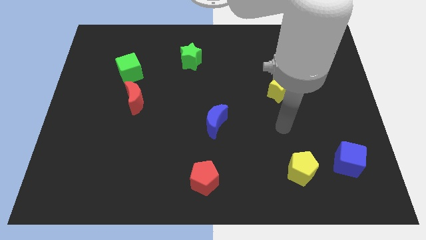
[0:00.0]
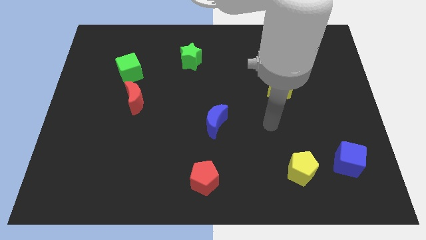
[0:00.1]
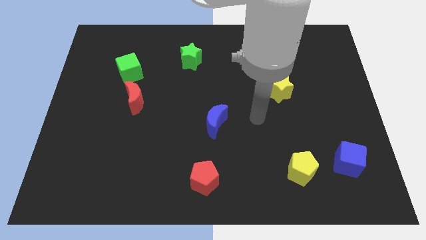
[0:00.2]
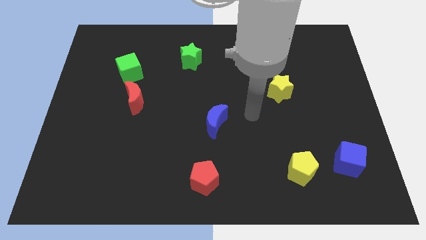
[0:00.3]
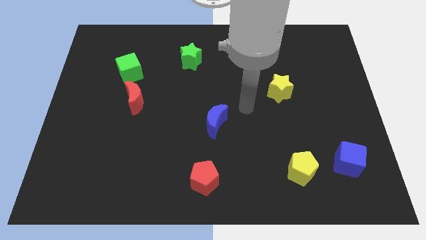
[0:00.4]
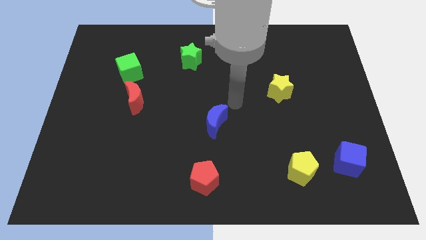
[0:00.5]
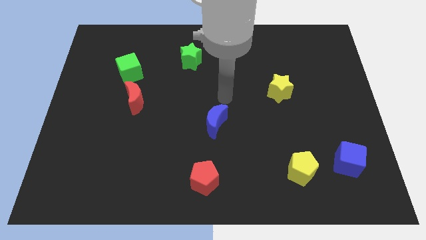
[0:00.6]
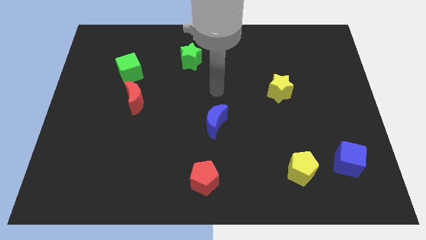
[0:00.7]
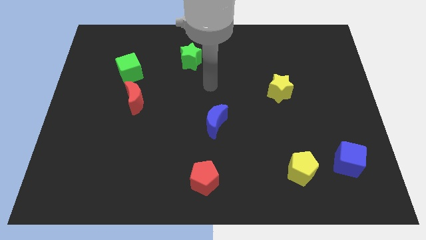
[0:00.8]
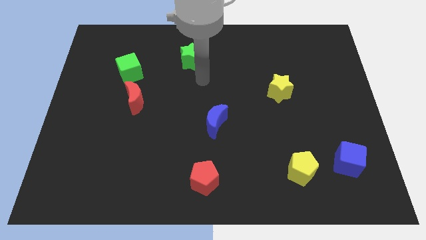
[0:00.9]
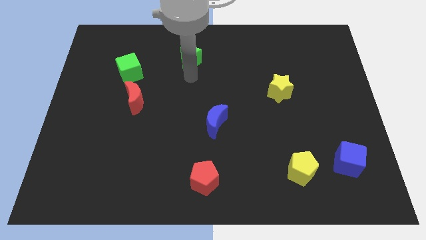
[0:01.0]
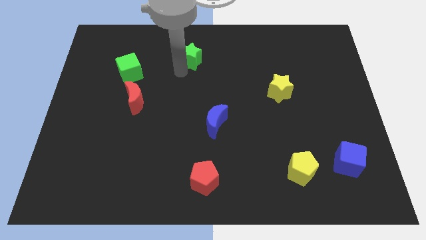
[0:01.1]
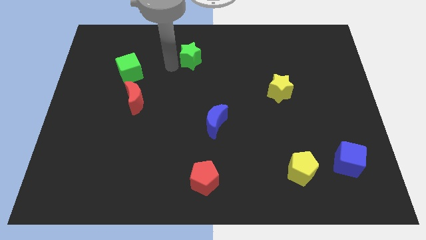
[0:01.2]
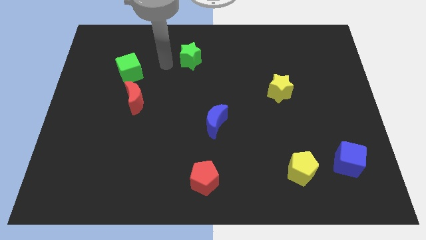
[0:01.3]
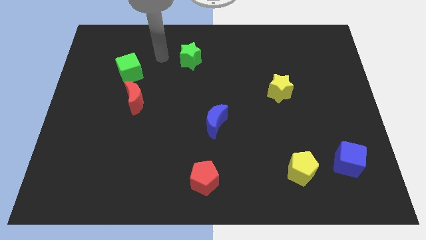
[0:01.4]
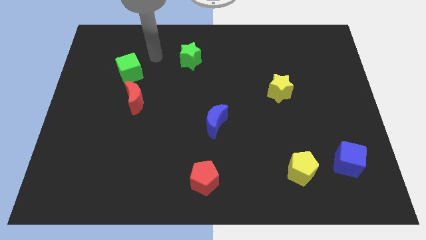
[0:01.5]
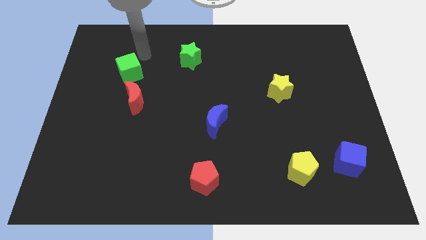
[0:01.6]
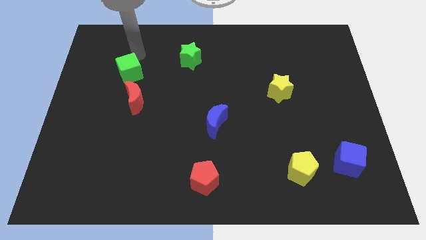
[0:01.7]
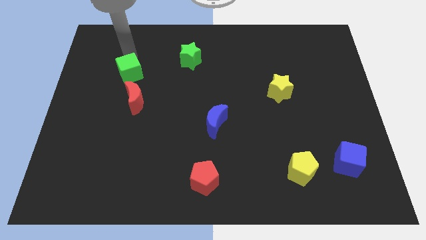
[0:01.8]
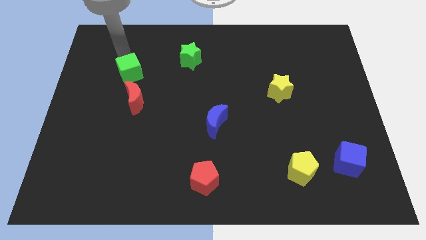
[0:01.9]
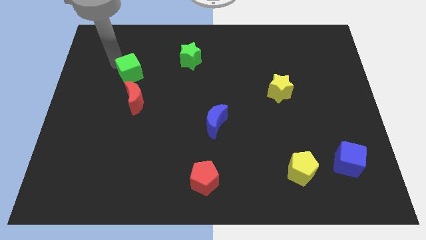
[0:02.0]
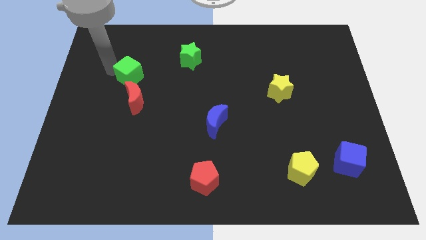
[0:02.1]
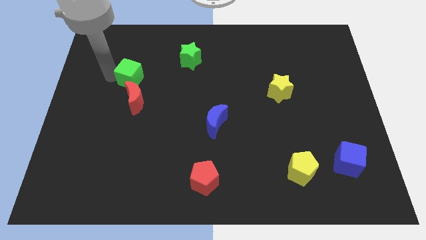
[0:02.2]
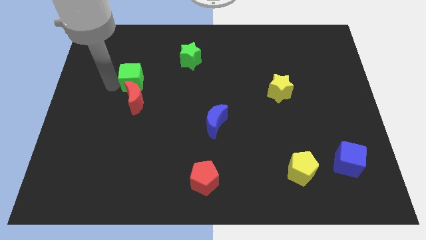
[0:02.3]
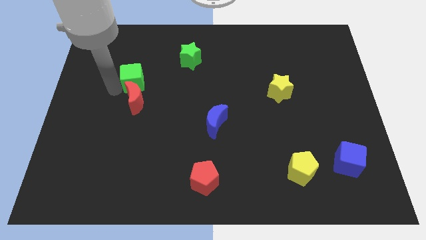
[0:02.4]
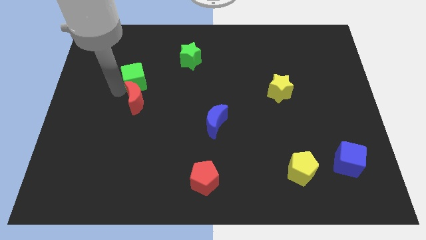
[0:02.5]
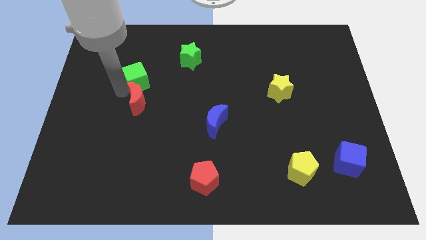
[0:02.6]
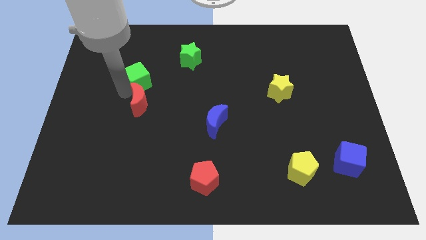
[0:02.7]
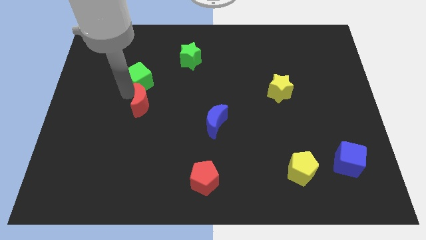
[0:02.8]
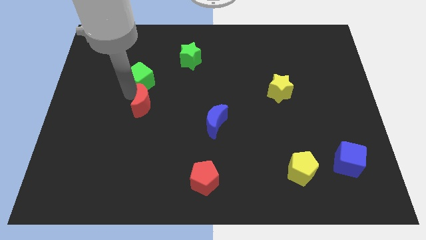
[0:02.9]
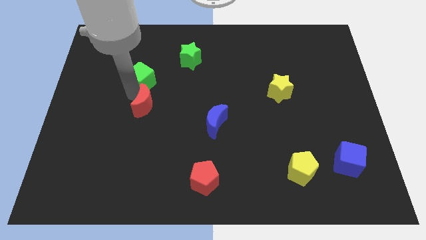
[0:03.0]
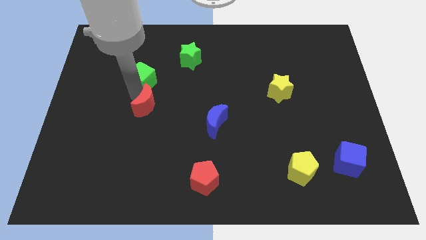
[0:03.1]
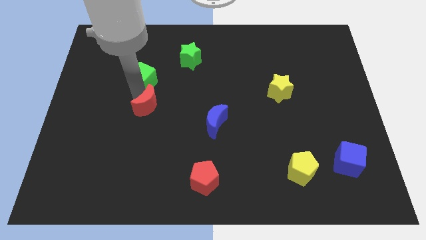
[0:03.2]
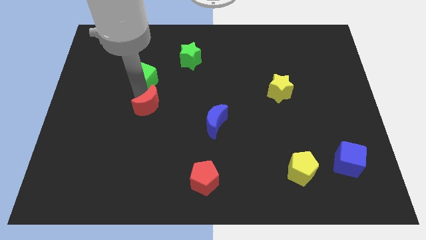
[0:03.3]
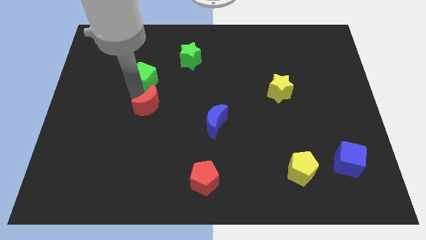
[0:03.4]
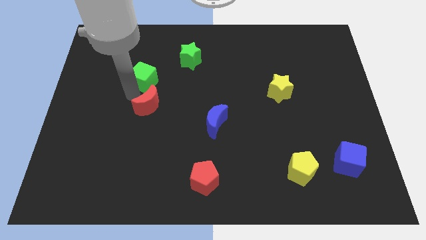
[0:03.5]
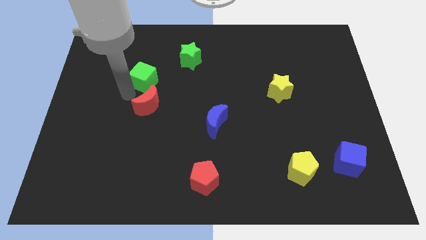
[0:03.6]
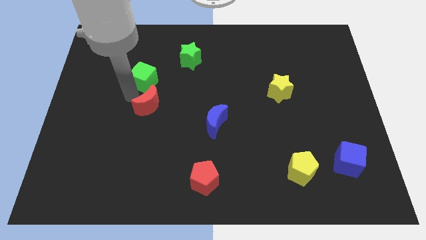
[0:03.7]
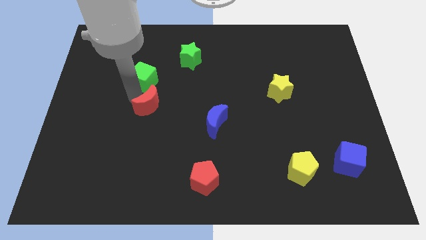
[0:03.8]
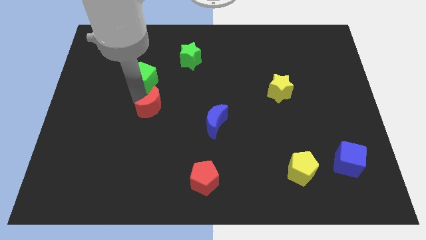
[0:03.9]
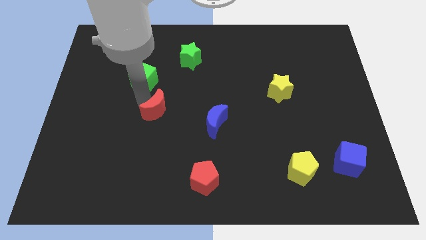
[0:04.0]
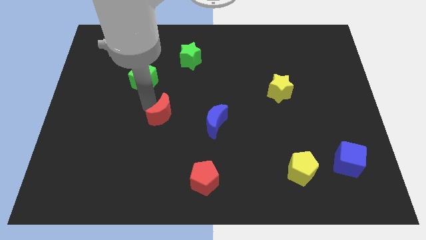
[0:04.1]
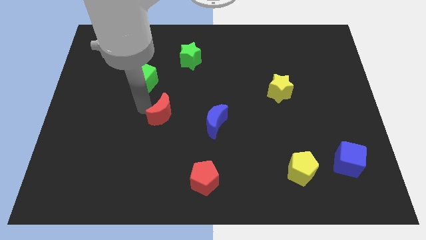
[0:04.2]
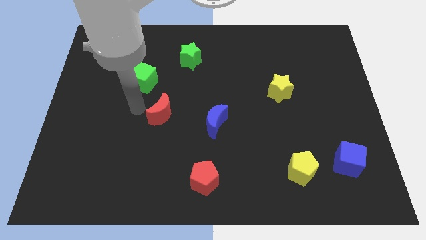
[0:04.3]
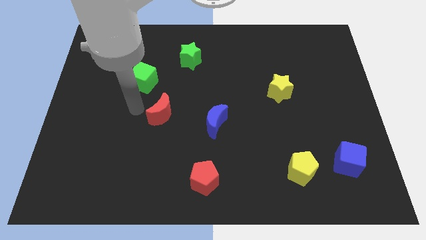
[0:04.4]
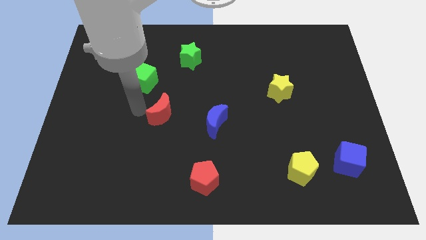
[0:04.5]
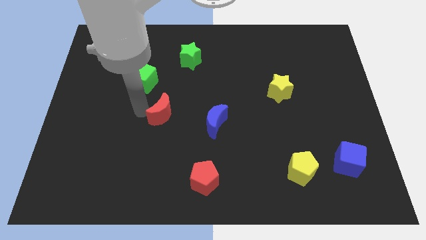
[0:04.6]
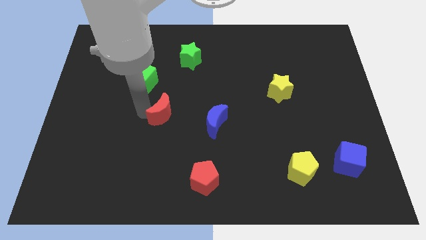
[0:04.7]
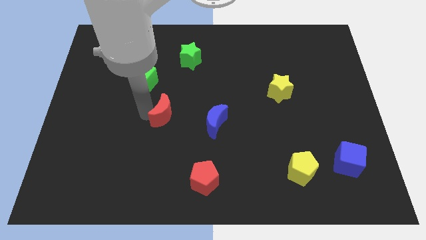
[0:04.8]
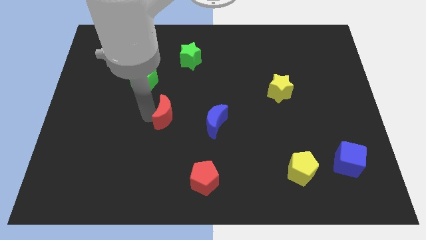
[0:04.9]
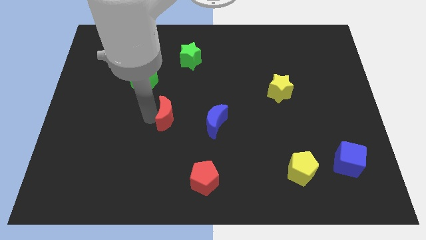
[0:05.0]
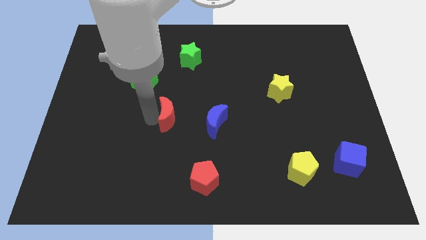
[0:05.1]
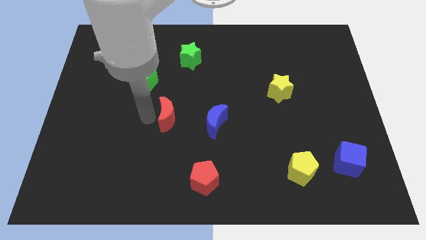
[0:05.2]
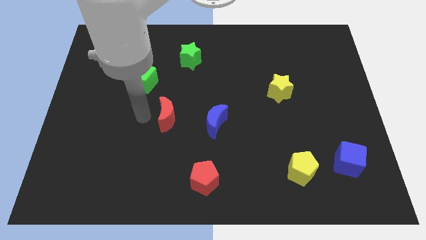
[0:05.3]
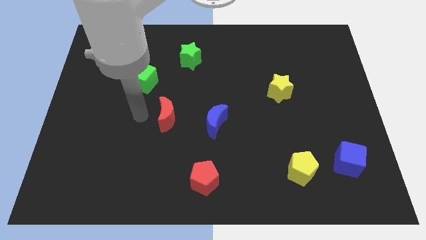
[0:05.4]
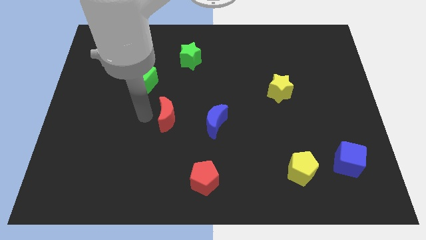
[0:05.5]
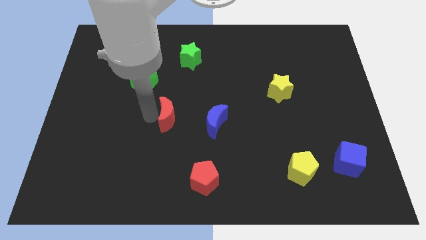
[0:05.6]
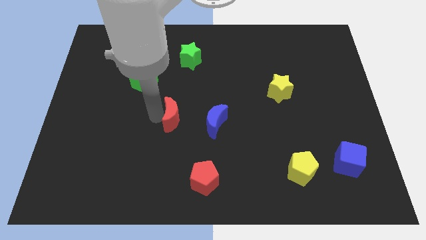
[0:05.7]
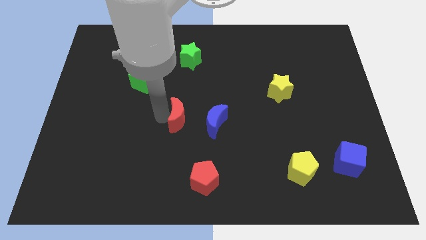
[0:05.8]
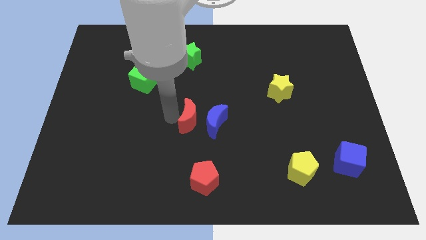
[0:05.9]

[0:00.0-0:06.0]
push the red moon close to the blue moon

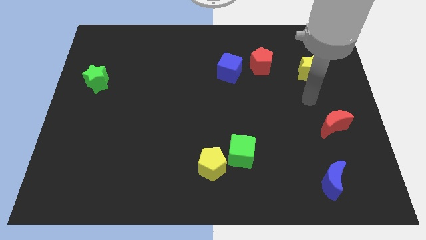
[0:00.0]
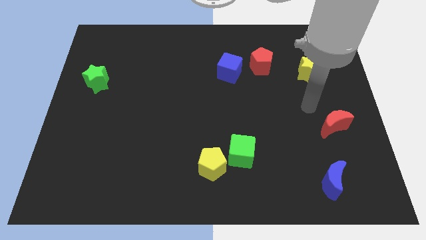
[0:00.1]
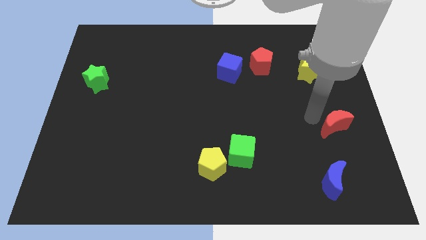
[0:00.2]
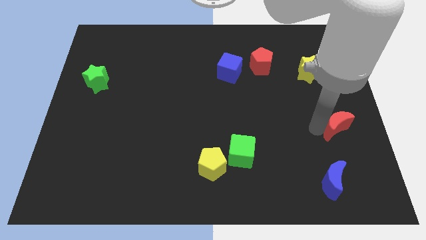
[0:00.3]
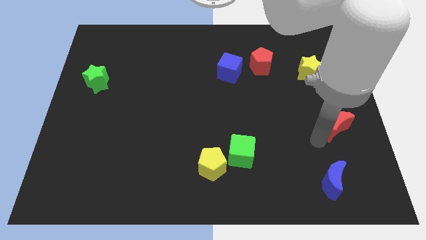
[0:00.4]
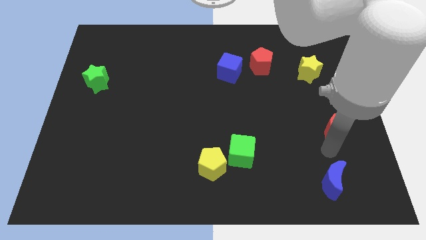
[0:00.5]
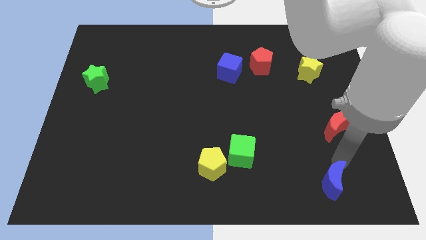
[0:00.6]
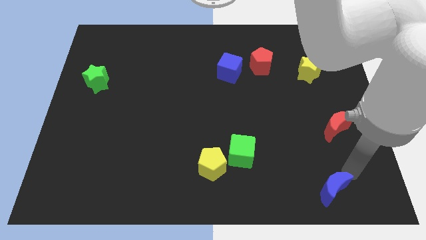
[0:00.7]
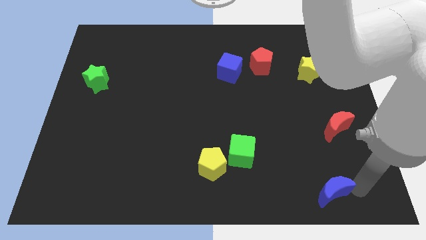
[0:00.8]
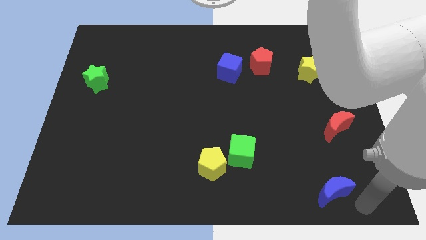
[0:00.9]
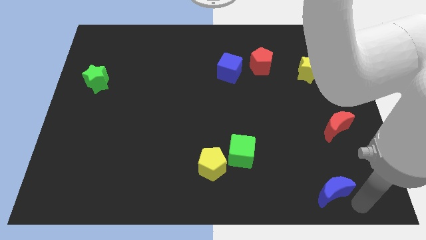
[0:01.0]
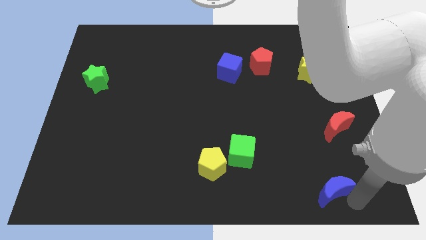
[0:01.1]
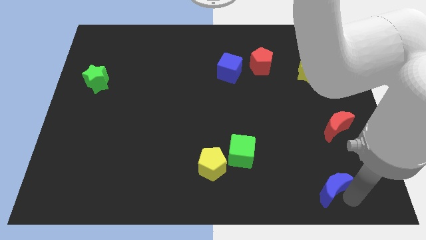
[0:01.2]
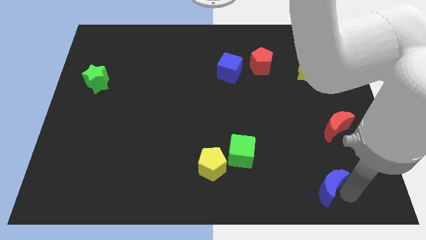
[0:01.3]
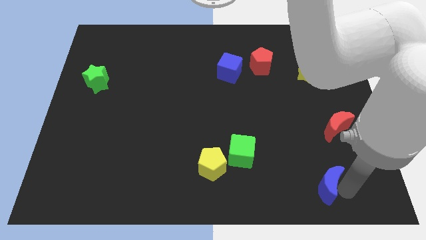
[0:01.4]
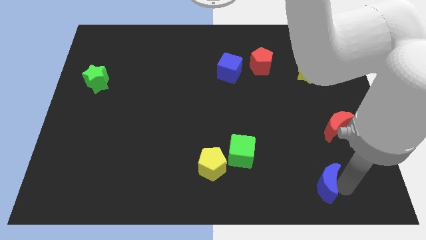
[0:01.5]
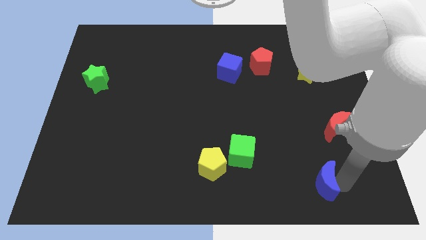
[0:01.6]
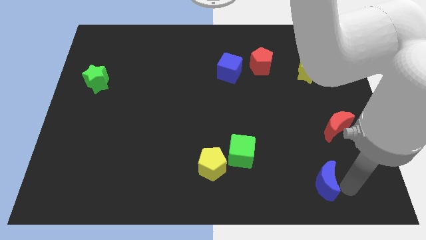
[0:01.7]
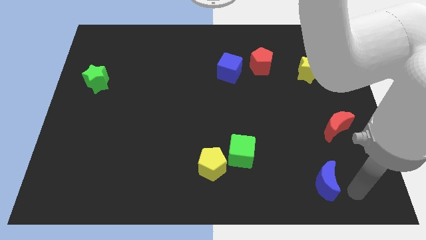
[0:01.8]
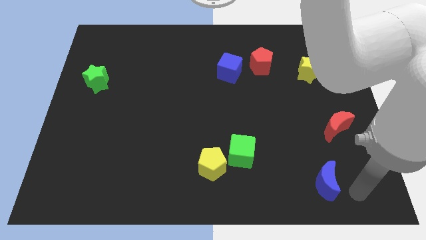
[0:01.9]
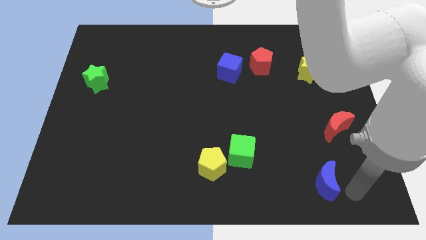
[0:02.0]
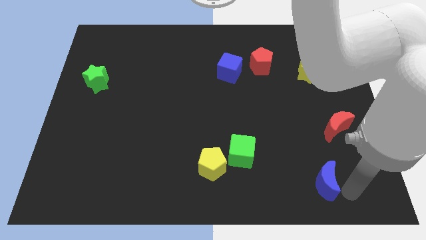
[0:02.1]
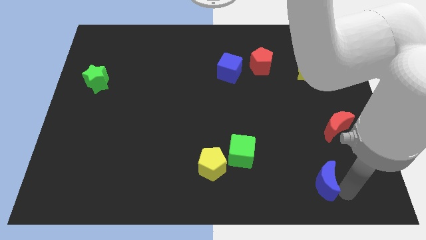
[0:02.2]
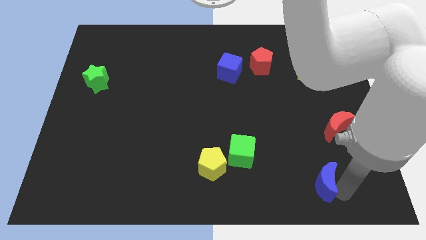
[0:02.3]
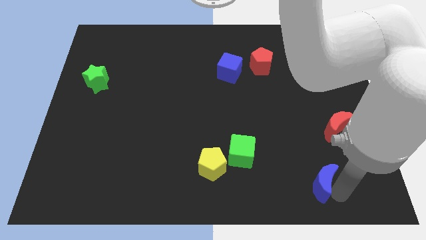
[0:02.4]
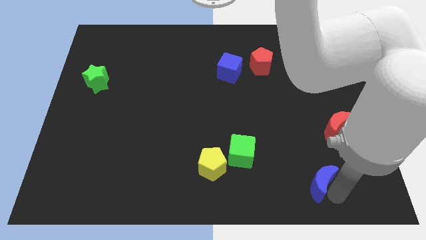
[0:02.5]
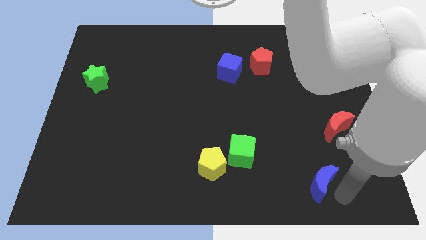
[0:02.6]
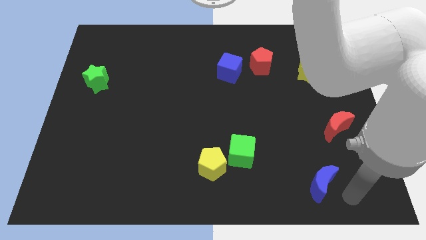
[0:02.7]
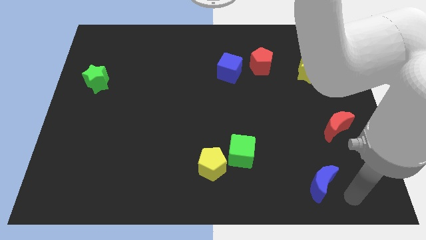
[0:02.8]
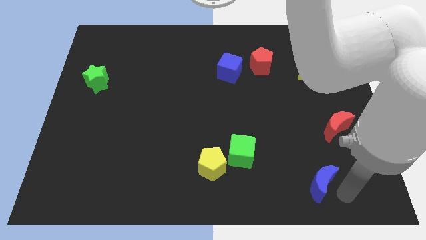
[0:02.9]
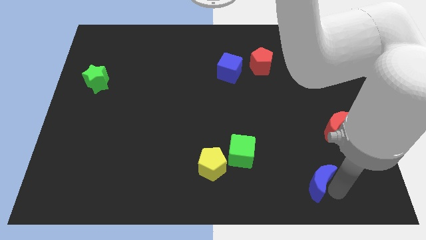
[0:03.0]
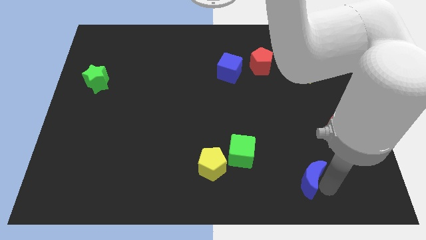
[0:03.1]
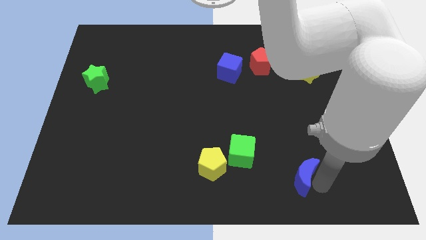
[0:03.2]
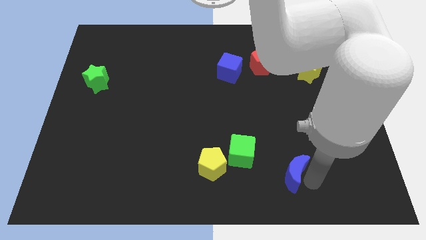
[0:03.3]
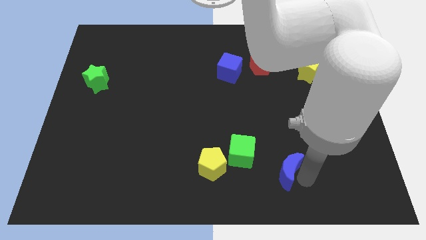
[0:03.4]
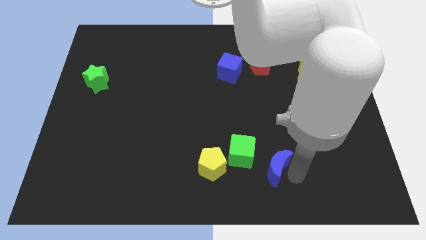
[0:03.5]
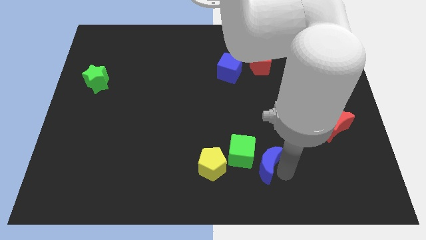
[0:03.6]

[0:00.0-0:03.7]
slide the blue moon towards the green cube
